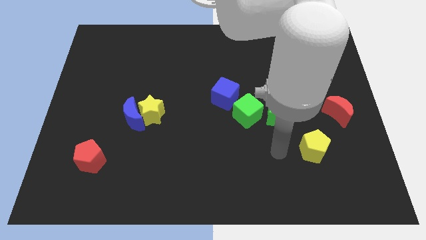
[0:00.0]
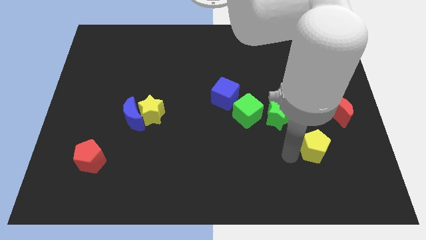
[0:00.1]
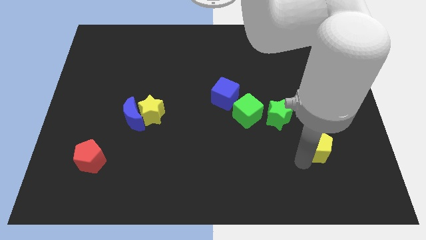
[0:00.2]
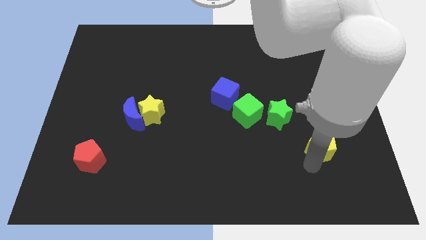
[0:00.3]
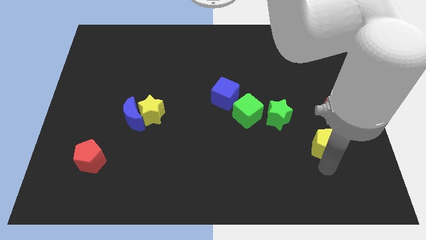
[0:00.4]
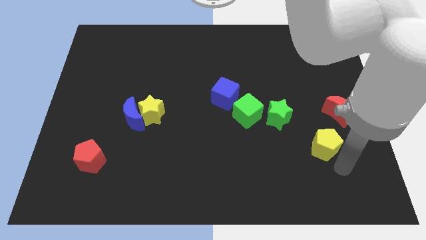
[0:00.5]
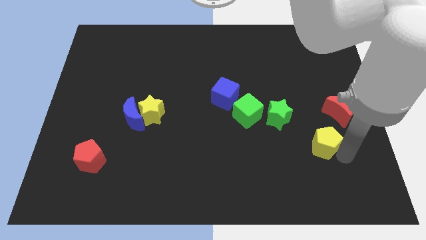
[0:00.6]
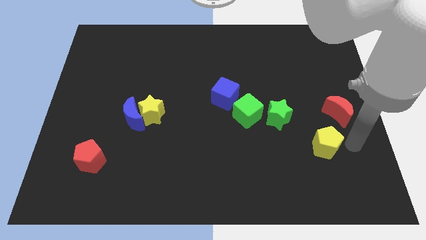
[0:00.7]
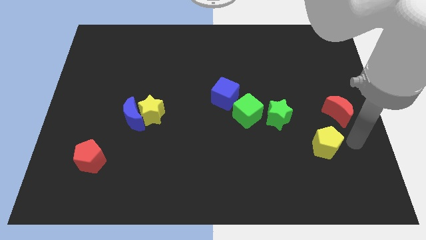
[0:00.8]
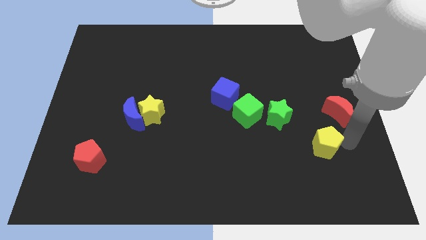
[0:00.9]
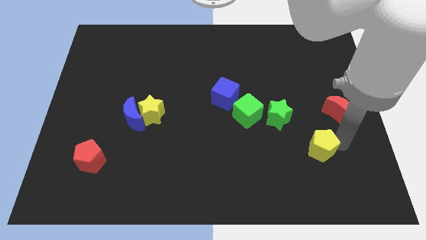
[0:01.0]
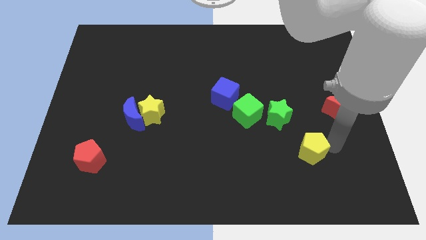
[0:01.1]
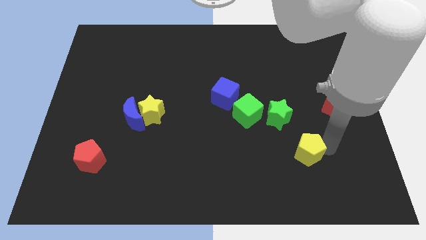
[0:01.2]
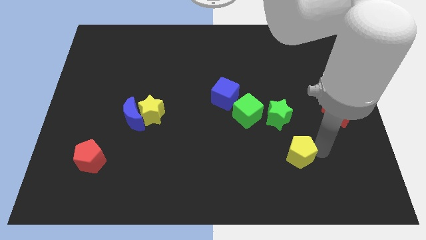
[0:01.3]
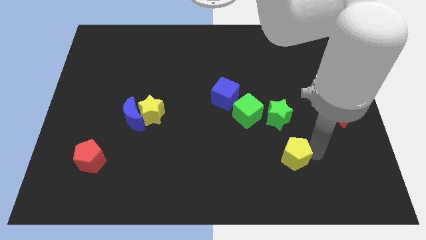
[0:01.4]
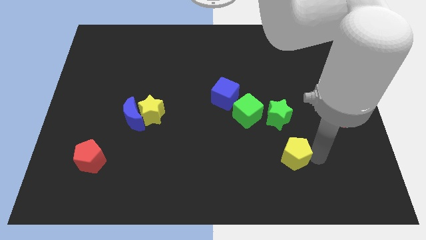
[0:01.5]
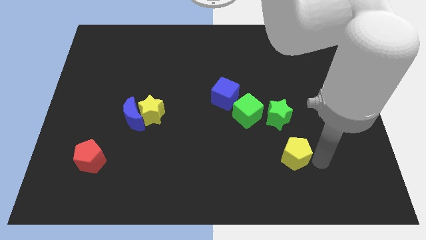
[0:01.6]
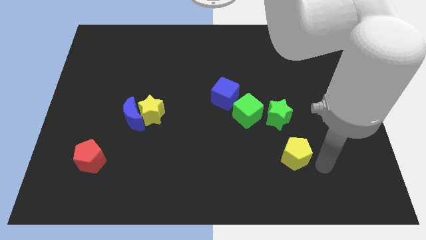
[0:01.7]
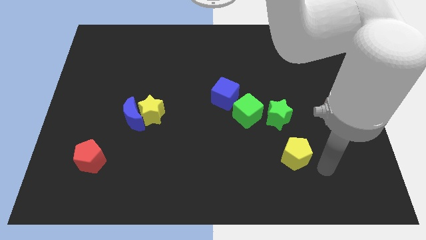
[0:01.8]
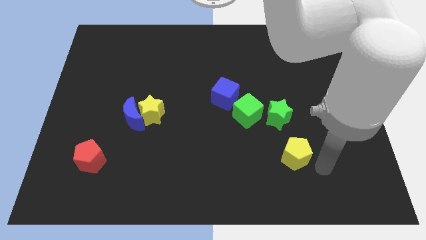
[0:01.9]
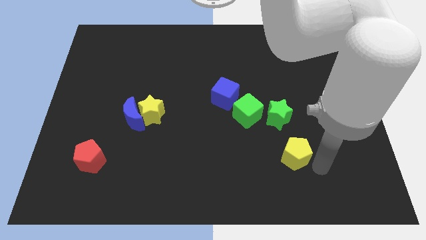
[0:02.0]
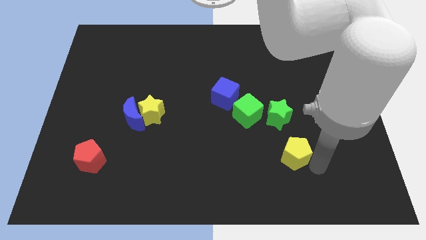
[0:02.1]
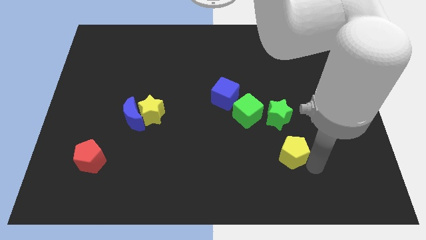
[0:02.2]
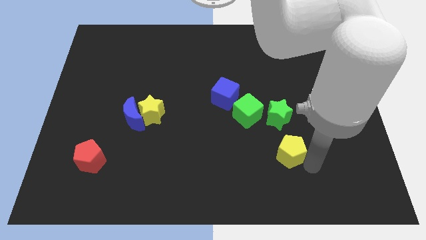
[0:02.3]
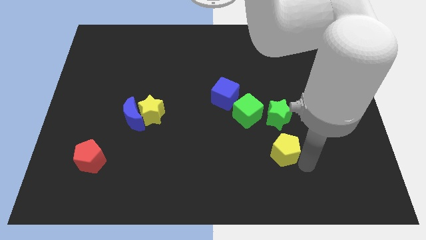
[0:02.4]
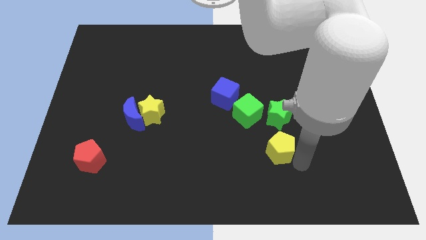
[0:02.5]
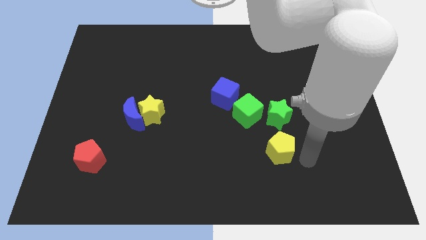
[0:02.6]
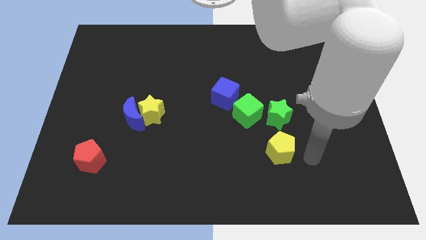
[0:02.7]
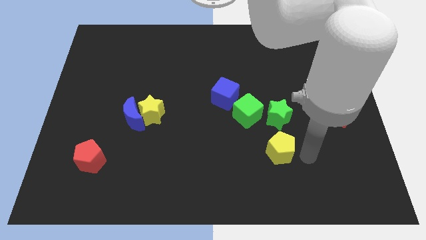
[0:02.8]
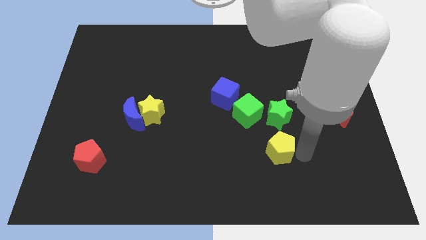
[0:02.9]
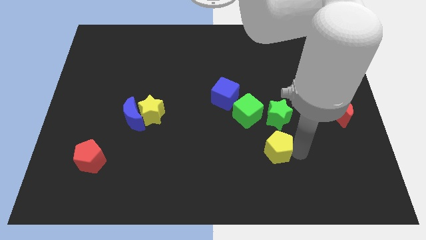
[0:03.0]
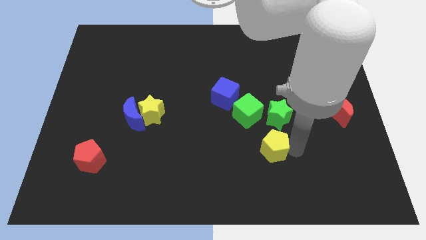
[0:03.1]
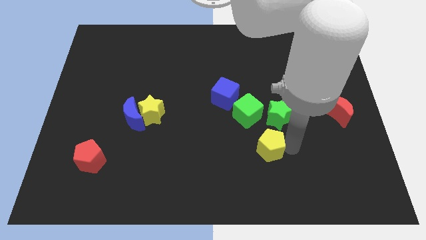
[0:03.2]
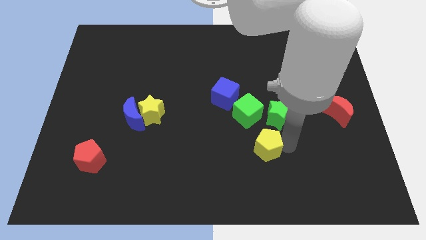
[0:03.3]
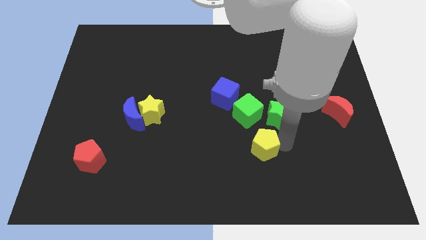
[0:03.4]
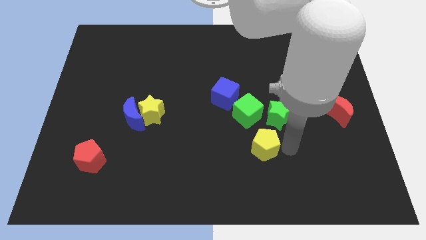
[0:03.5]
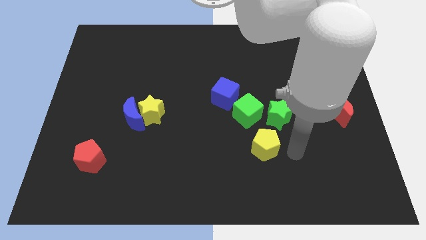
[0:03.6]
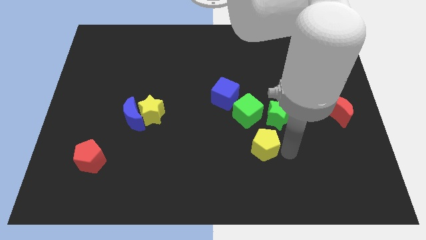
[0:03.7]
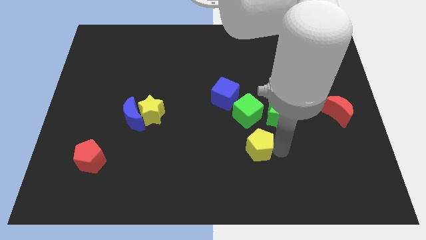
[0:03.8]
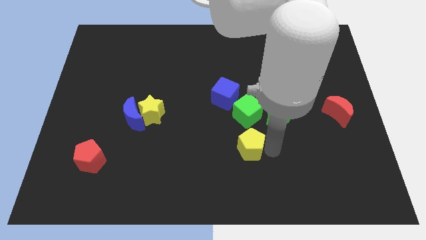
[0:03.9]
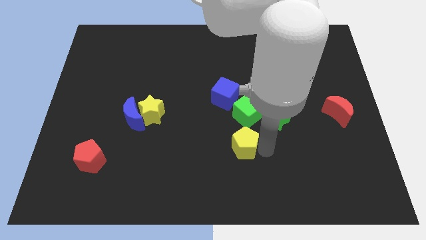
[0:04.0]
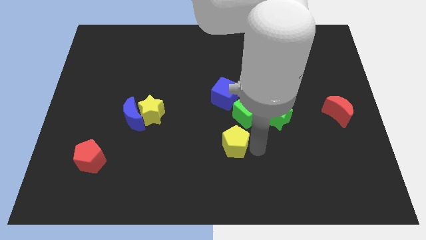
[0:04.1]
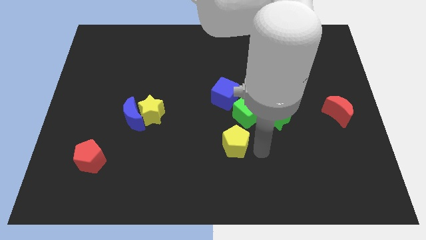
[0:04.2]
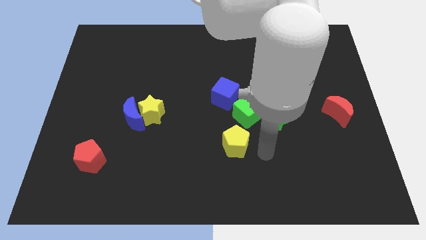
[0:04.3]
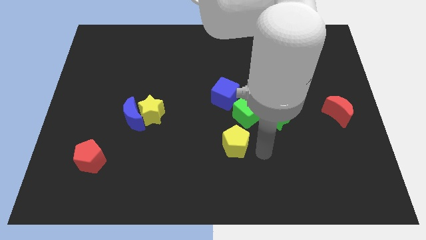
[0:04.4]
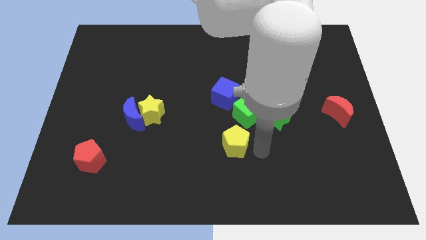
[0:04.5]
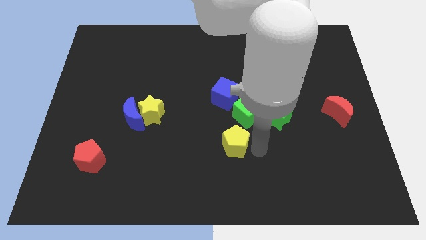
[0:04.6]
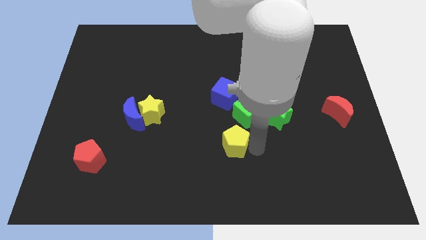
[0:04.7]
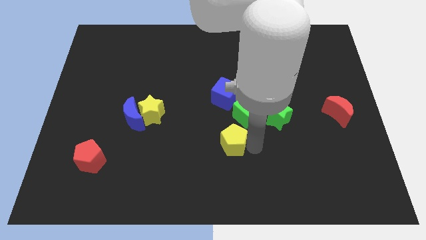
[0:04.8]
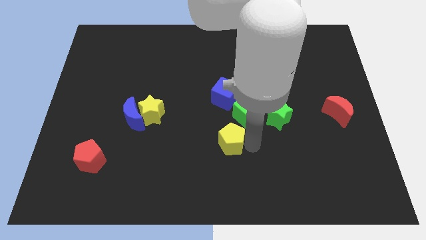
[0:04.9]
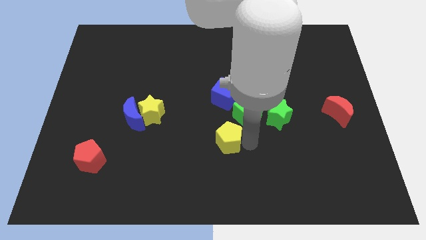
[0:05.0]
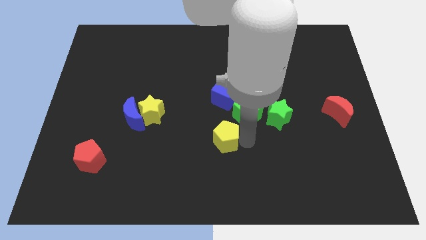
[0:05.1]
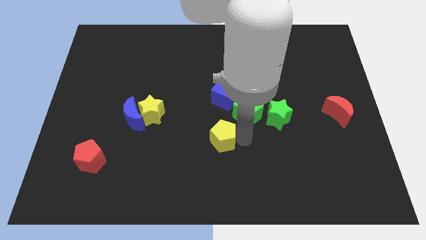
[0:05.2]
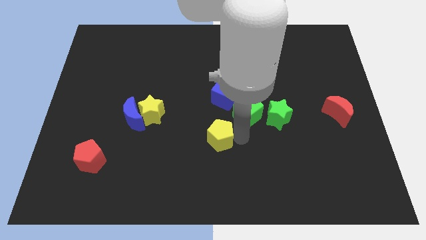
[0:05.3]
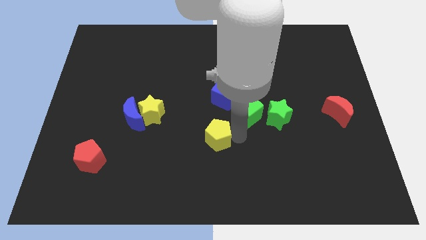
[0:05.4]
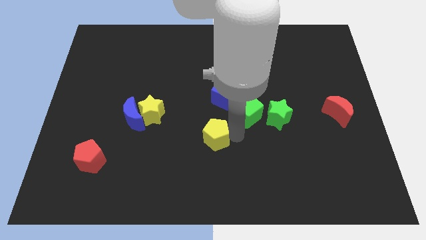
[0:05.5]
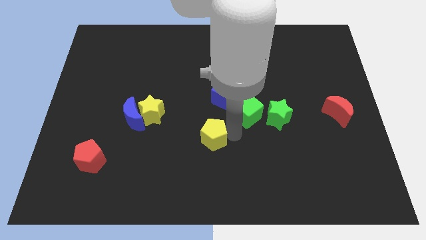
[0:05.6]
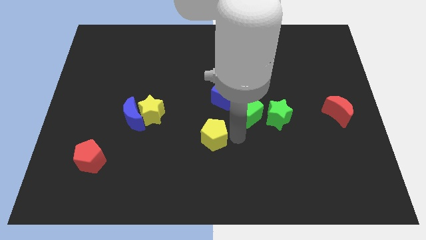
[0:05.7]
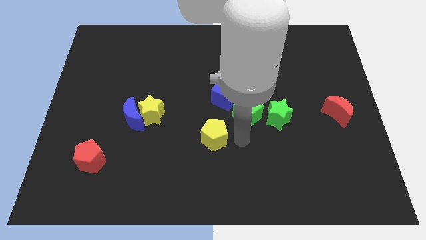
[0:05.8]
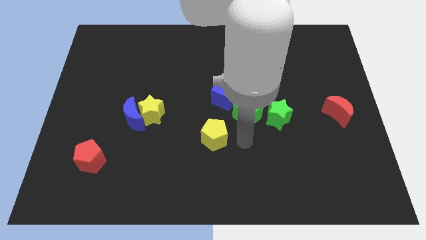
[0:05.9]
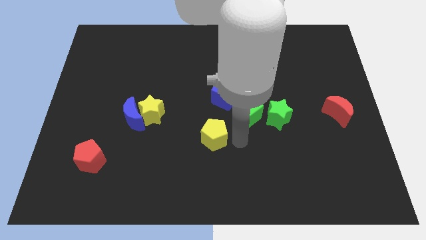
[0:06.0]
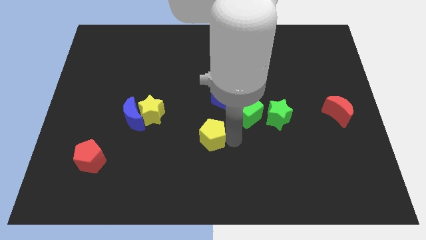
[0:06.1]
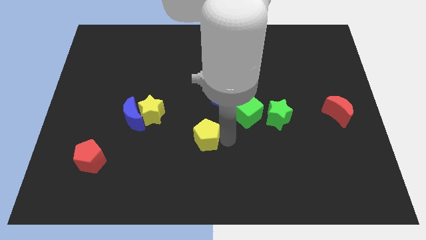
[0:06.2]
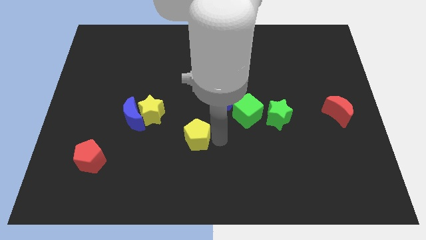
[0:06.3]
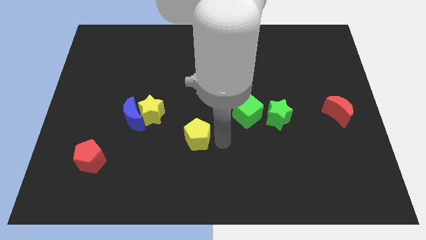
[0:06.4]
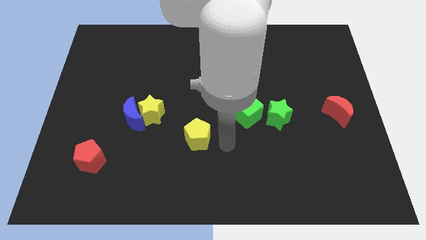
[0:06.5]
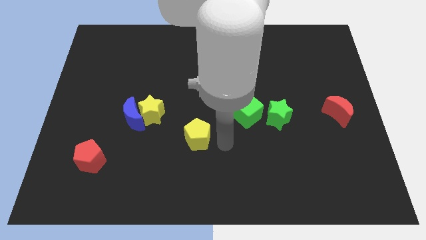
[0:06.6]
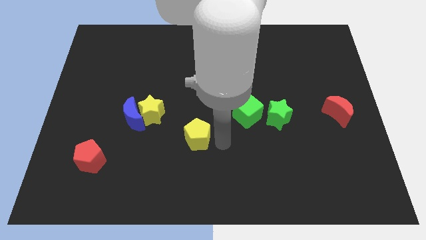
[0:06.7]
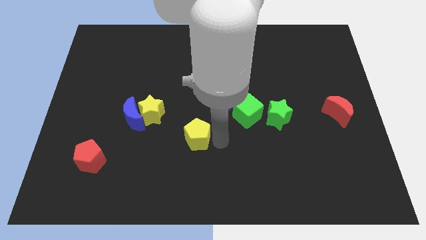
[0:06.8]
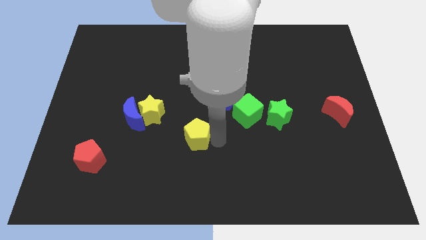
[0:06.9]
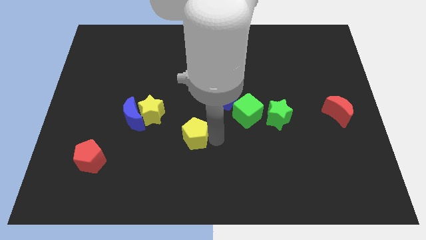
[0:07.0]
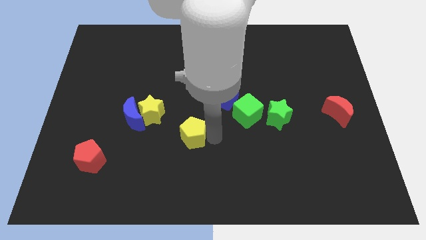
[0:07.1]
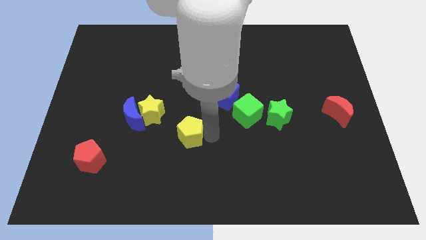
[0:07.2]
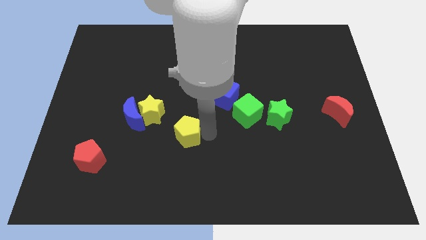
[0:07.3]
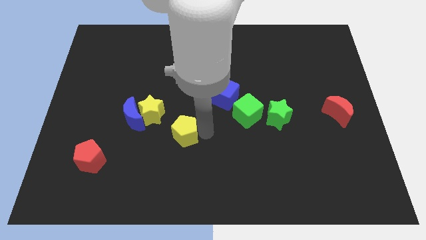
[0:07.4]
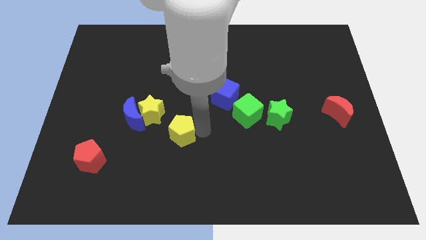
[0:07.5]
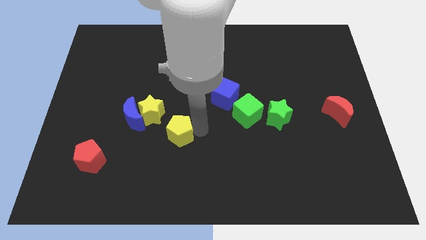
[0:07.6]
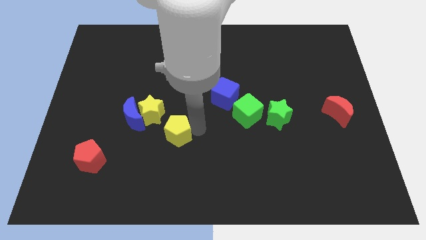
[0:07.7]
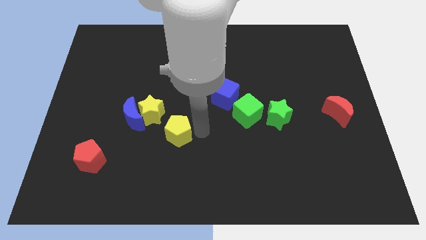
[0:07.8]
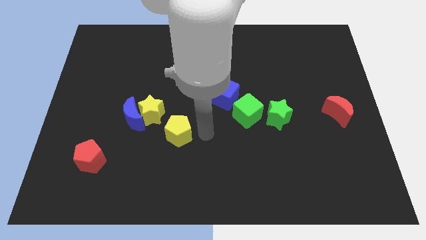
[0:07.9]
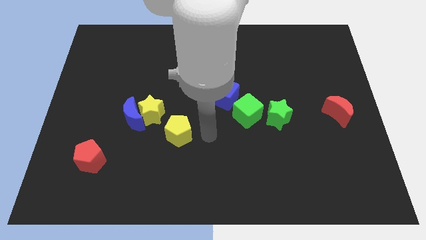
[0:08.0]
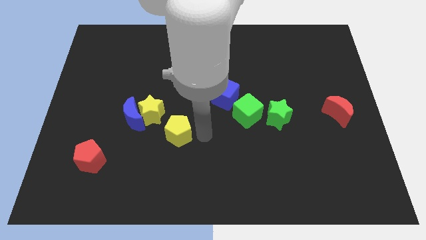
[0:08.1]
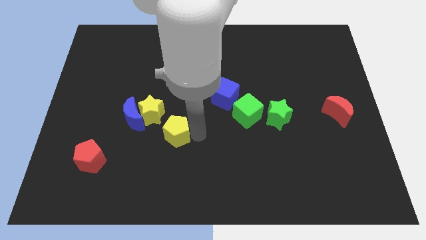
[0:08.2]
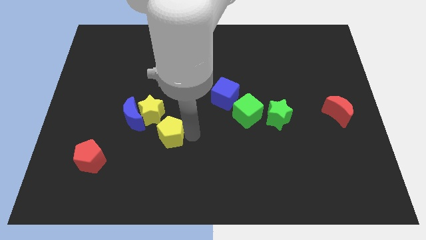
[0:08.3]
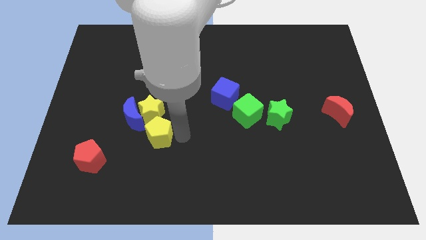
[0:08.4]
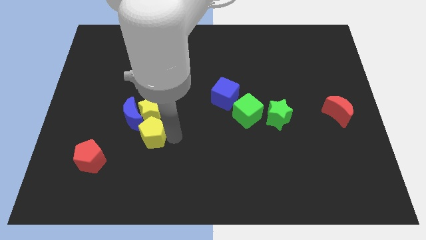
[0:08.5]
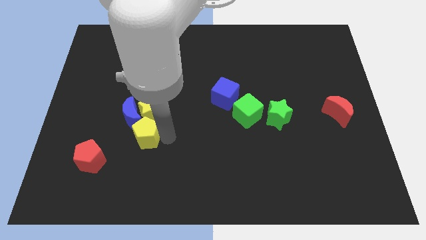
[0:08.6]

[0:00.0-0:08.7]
slide the yellow pentagon close to the blue moon
